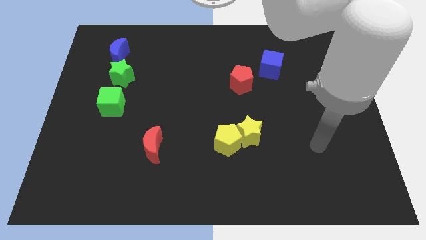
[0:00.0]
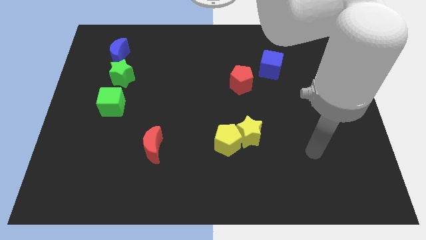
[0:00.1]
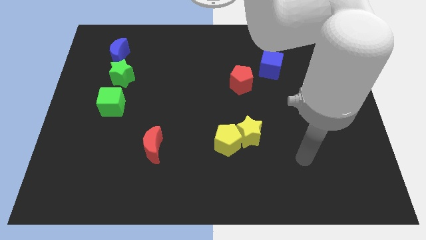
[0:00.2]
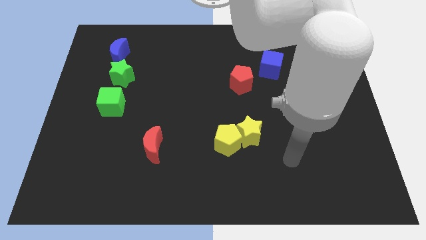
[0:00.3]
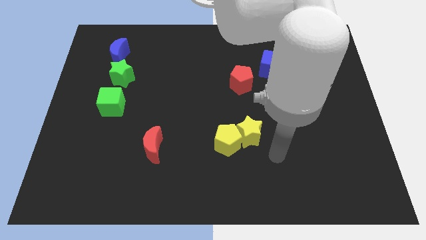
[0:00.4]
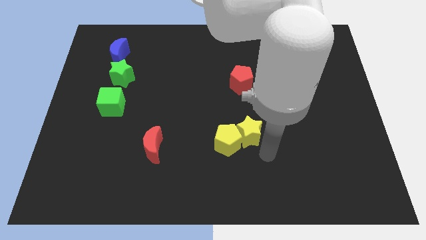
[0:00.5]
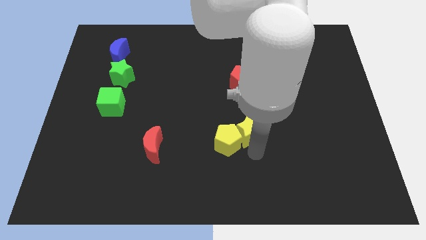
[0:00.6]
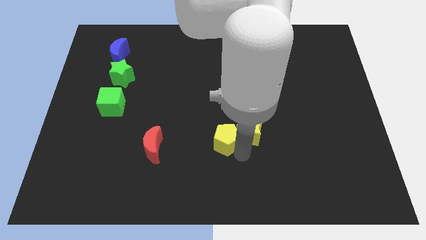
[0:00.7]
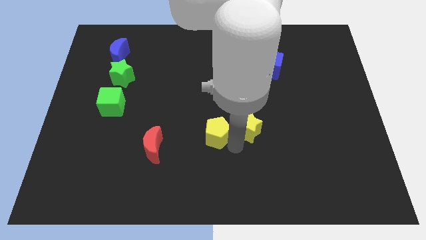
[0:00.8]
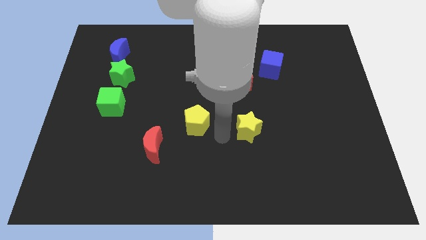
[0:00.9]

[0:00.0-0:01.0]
separate the yellow star from the yellow pentagon

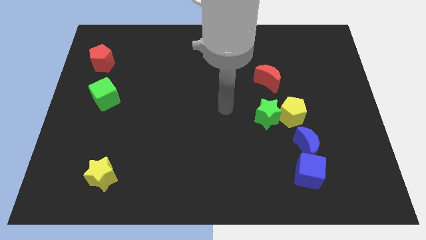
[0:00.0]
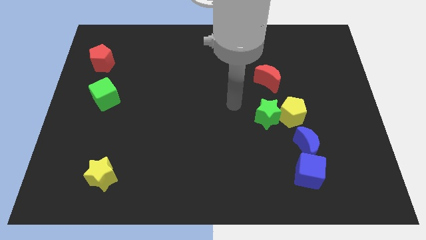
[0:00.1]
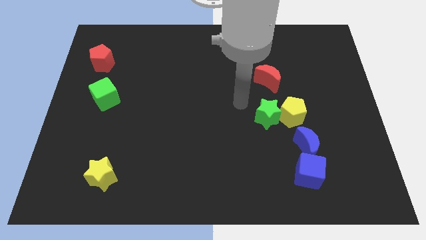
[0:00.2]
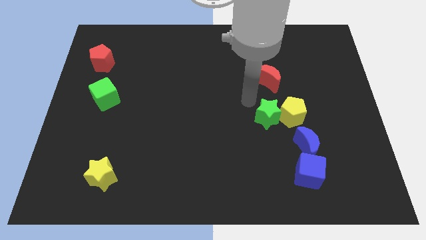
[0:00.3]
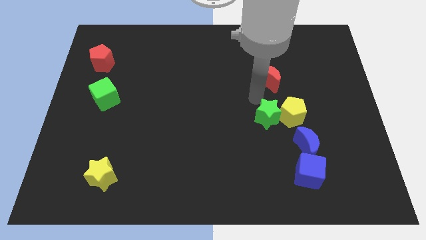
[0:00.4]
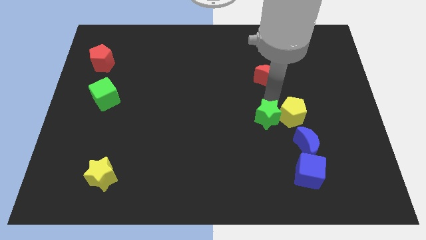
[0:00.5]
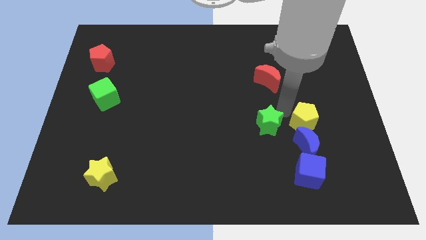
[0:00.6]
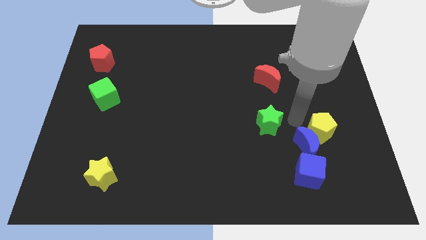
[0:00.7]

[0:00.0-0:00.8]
separate the green star from the yellow pentagon

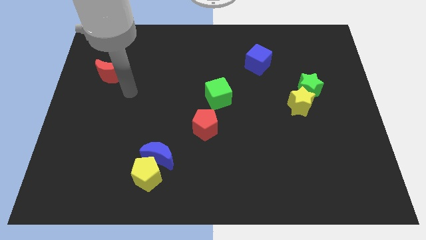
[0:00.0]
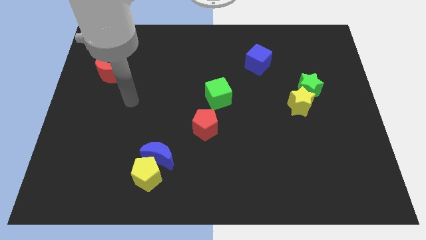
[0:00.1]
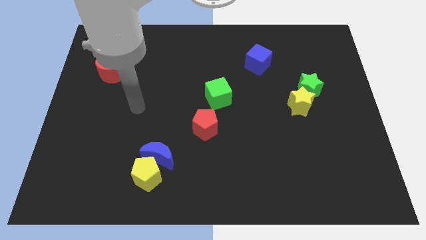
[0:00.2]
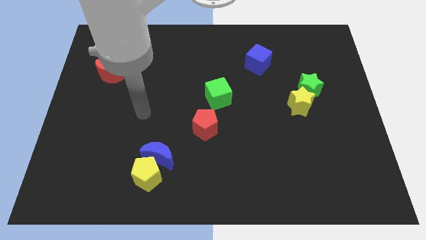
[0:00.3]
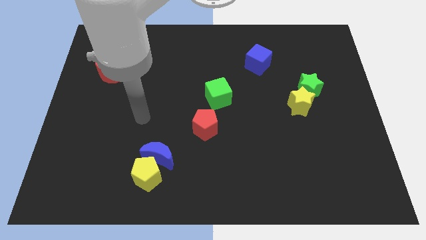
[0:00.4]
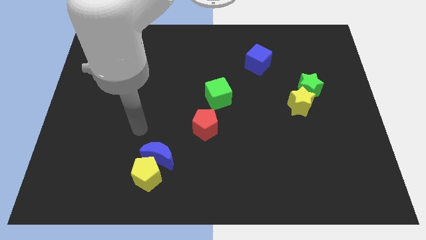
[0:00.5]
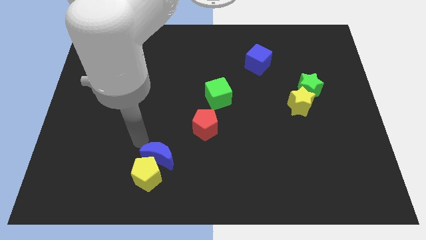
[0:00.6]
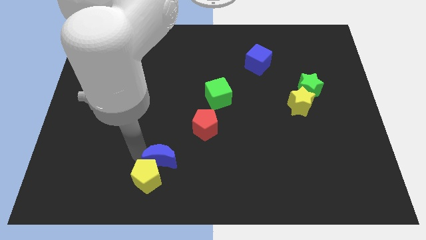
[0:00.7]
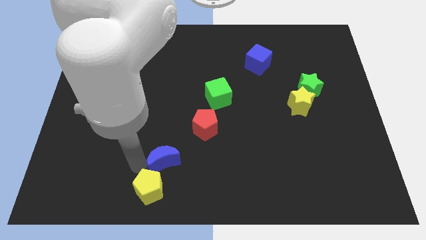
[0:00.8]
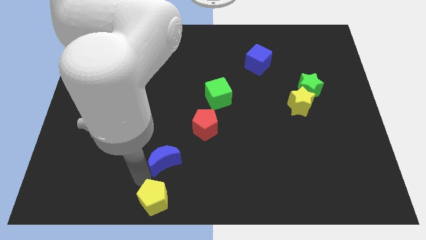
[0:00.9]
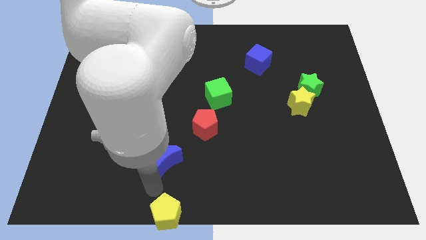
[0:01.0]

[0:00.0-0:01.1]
separate the blue moon from the yellow pentagon

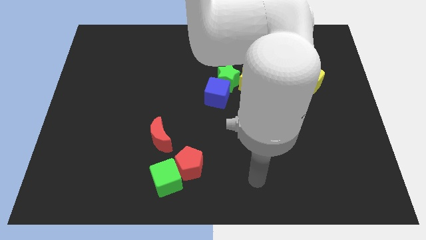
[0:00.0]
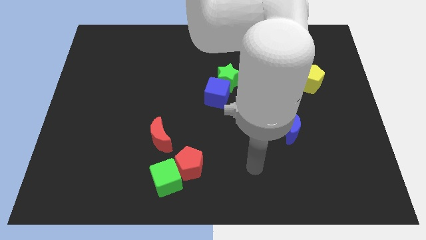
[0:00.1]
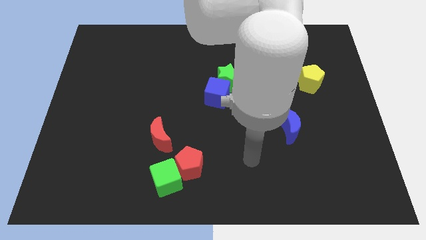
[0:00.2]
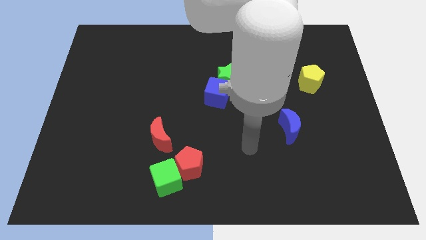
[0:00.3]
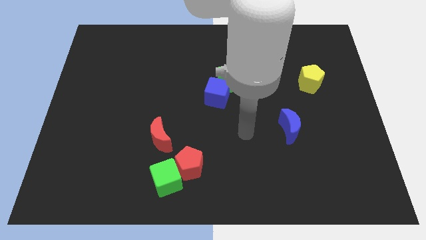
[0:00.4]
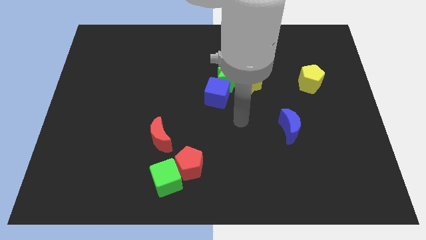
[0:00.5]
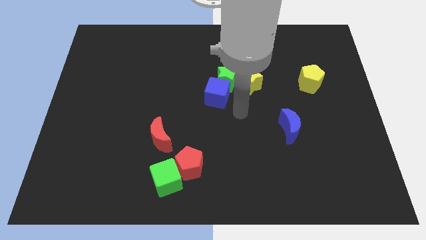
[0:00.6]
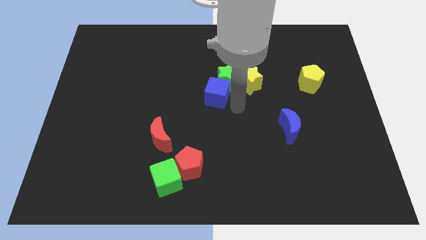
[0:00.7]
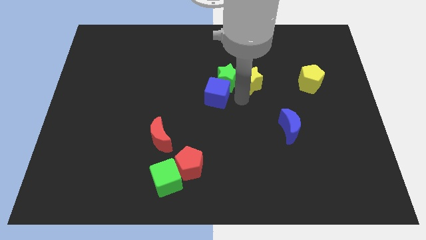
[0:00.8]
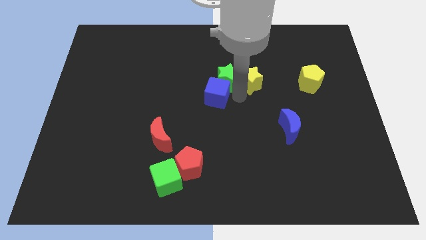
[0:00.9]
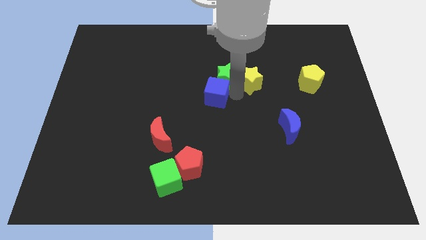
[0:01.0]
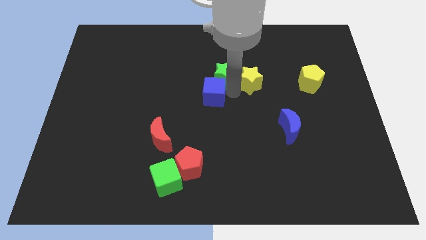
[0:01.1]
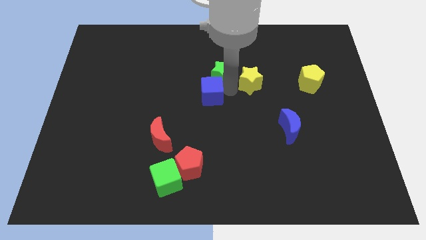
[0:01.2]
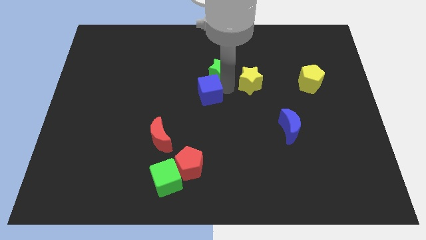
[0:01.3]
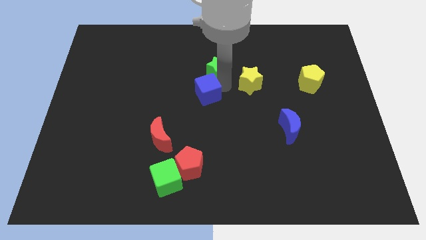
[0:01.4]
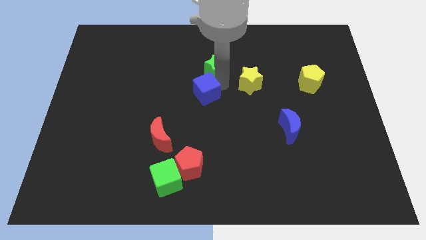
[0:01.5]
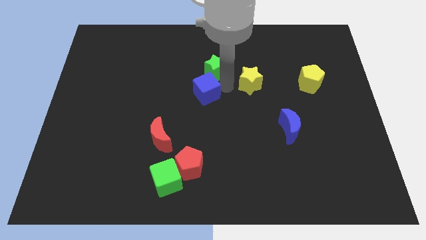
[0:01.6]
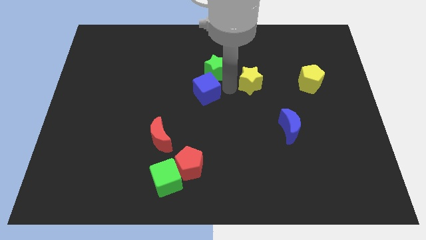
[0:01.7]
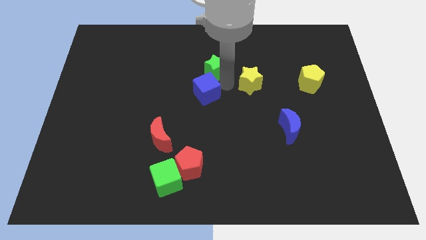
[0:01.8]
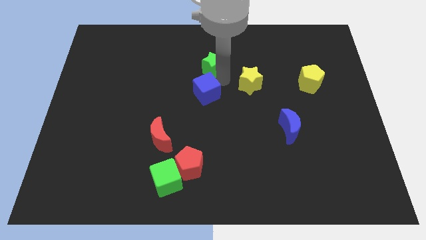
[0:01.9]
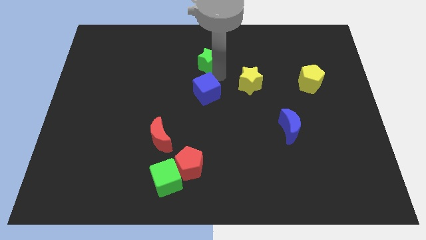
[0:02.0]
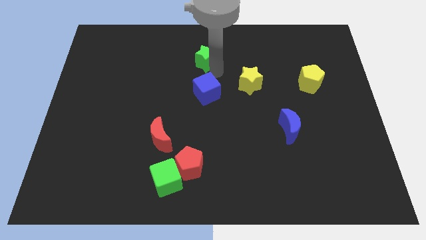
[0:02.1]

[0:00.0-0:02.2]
separate the green star from the blue cube and yellow star

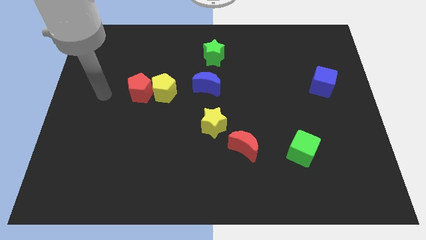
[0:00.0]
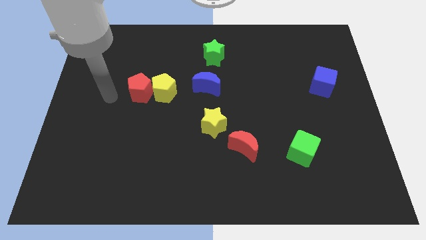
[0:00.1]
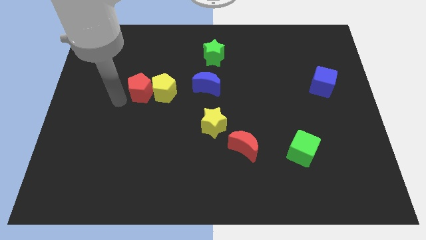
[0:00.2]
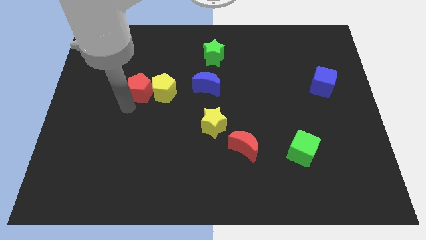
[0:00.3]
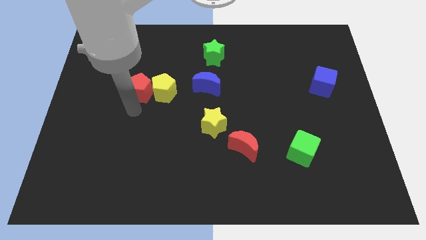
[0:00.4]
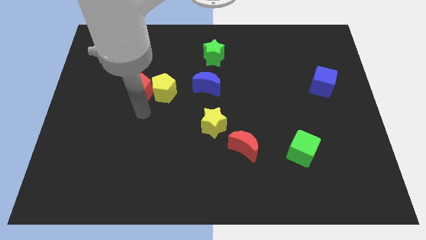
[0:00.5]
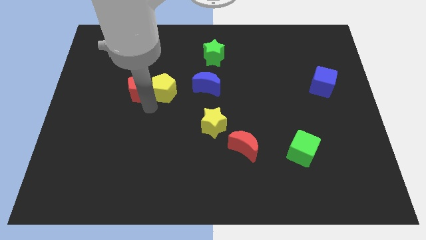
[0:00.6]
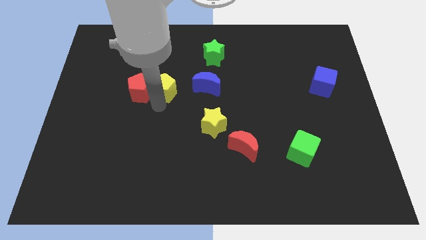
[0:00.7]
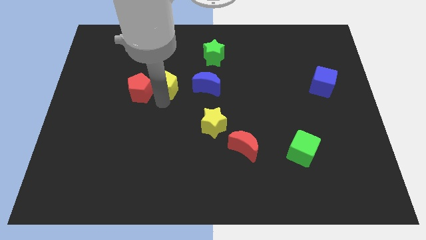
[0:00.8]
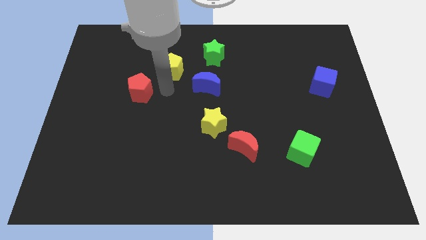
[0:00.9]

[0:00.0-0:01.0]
separate the red pentagon from the yellow pentagon

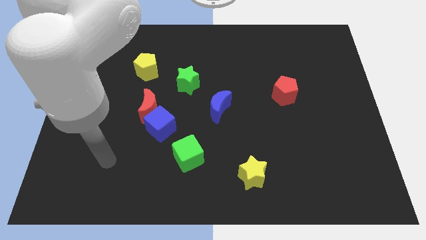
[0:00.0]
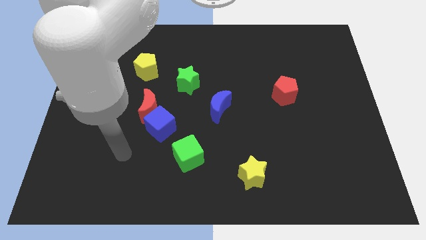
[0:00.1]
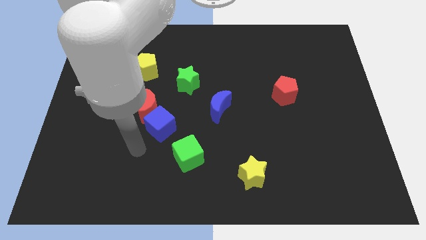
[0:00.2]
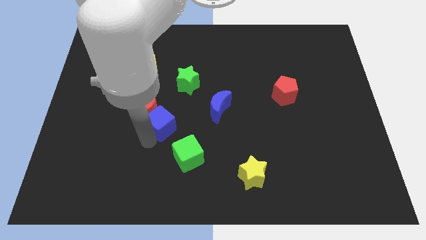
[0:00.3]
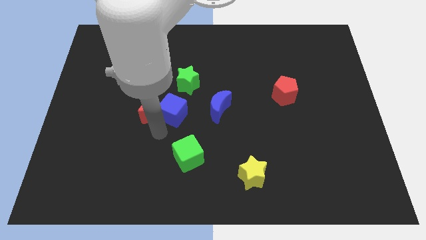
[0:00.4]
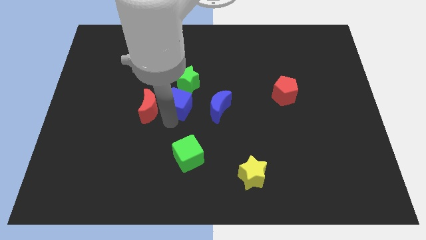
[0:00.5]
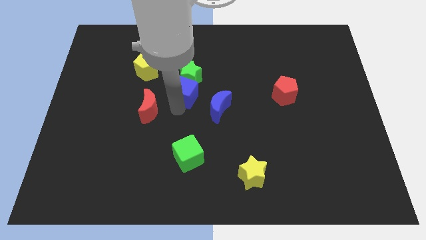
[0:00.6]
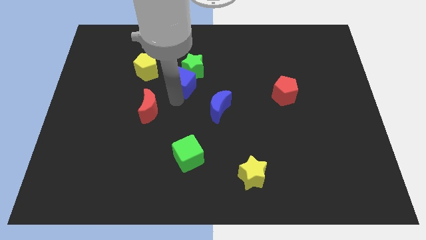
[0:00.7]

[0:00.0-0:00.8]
move the red moon away from the blue cube

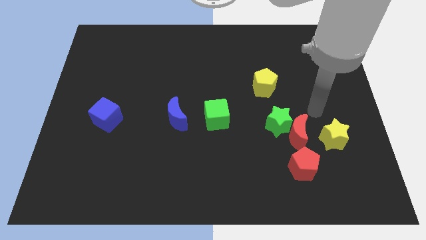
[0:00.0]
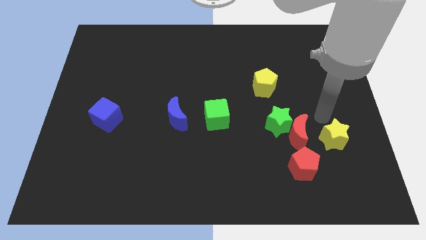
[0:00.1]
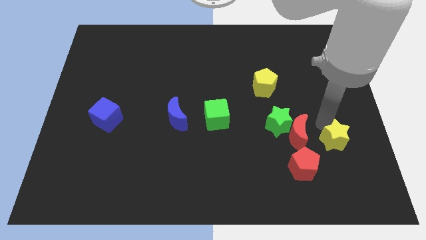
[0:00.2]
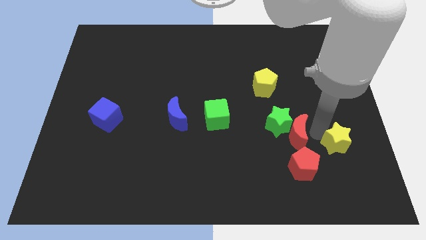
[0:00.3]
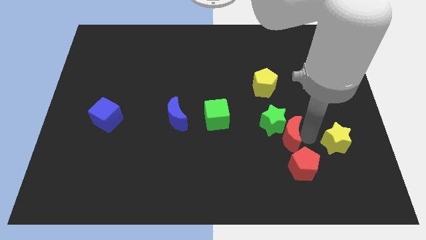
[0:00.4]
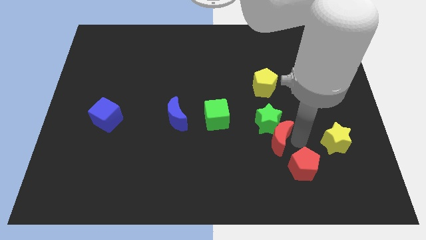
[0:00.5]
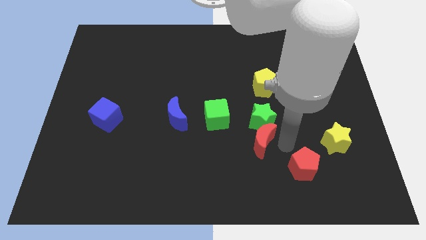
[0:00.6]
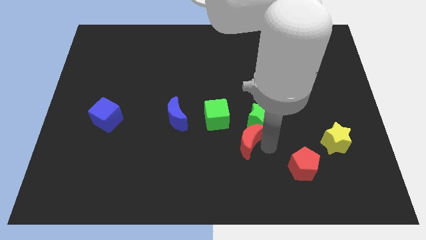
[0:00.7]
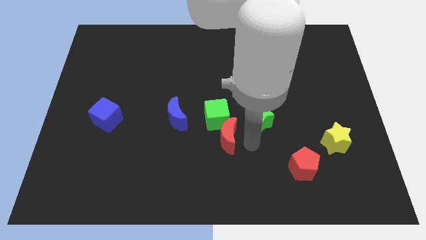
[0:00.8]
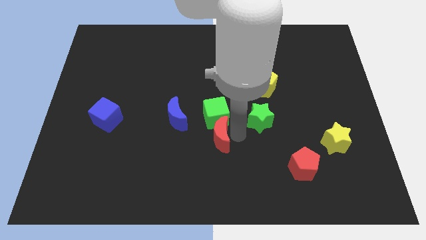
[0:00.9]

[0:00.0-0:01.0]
separate the green star from the red moon

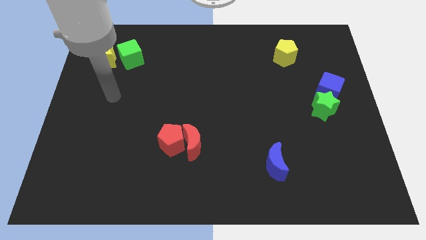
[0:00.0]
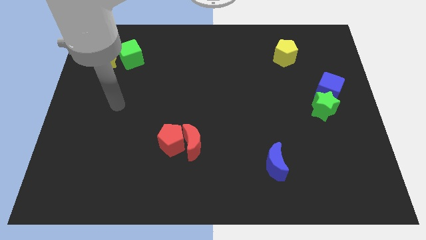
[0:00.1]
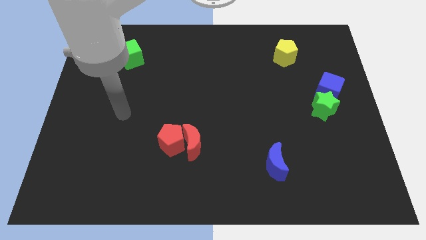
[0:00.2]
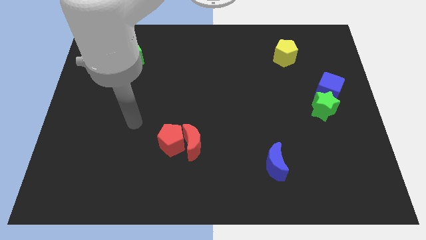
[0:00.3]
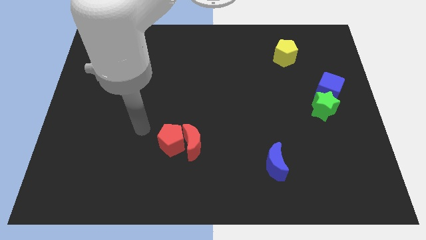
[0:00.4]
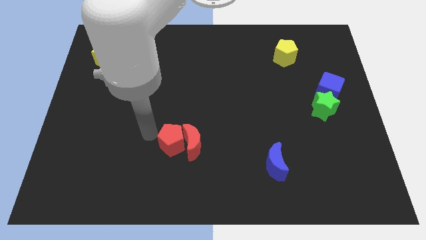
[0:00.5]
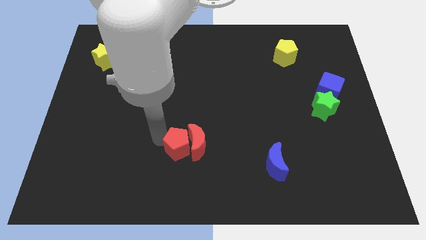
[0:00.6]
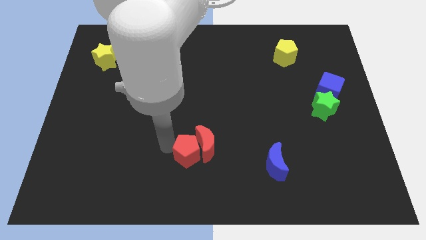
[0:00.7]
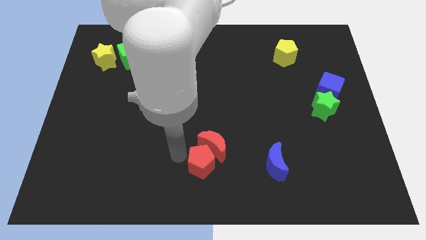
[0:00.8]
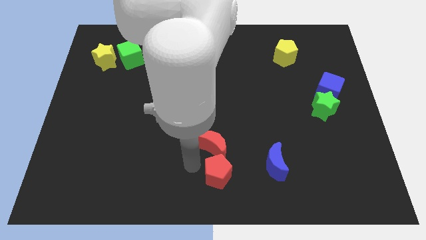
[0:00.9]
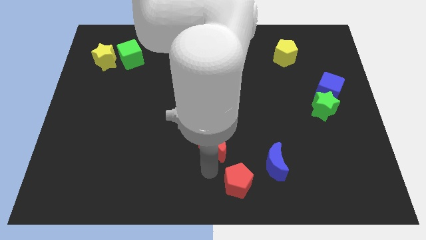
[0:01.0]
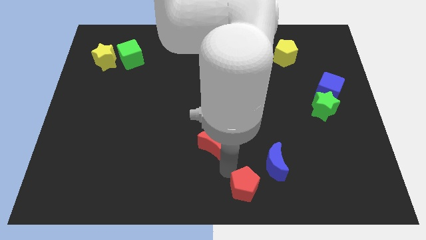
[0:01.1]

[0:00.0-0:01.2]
move the red moon away from the red pentagon
